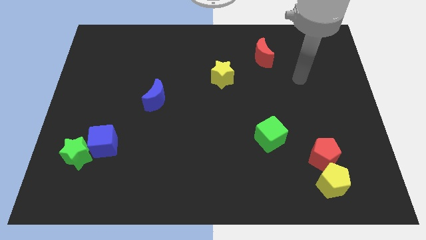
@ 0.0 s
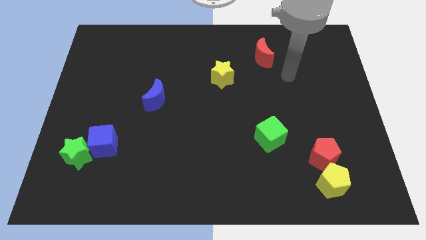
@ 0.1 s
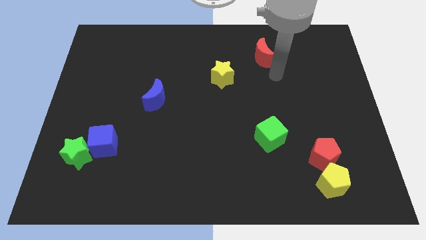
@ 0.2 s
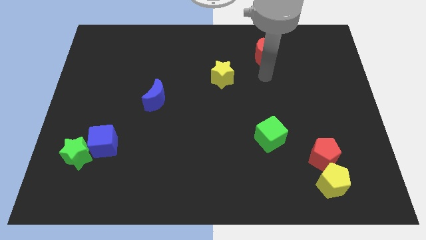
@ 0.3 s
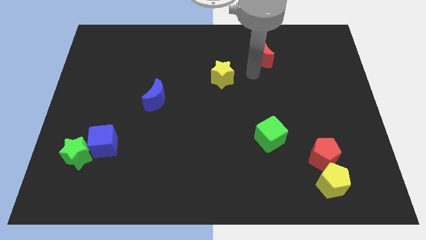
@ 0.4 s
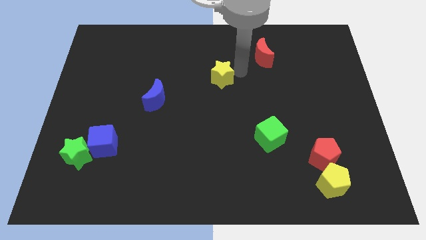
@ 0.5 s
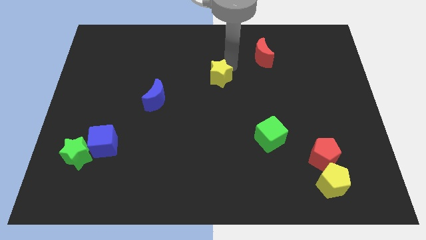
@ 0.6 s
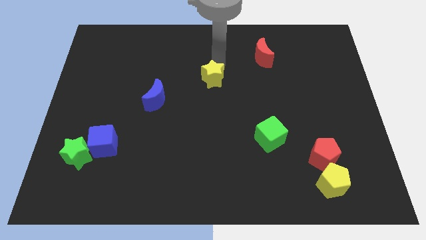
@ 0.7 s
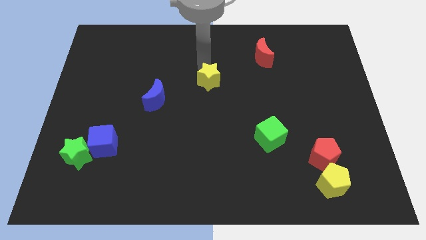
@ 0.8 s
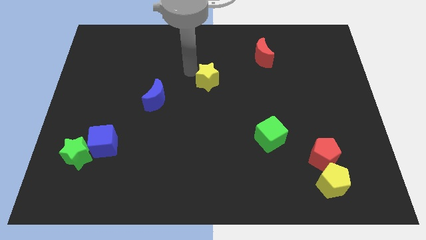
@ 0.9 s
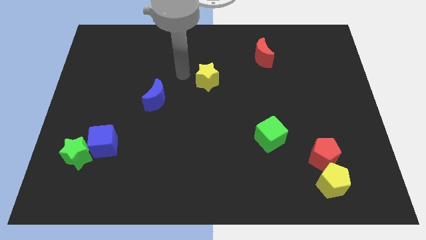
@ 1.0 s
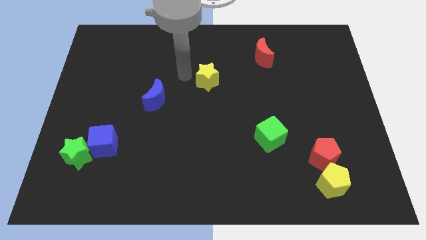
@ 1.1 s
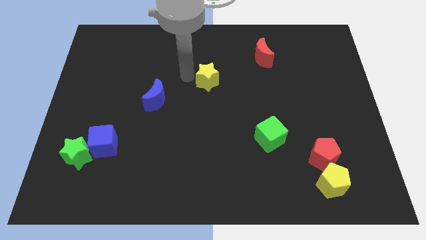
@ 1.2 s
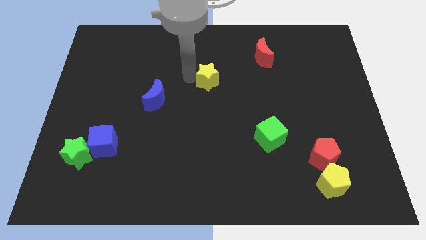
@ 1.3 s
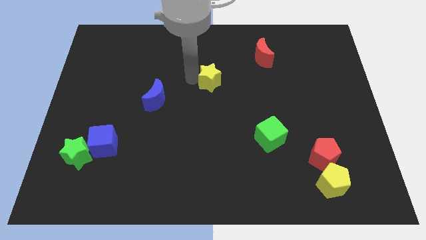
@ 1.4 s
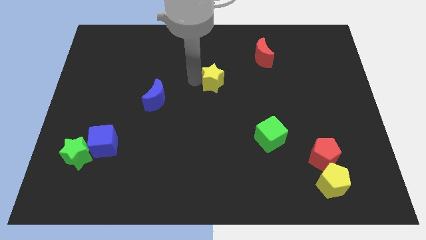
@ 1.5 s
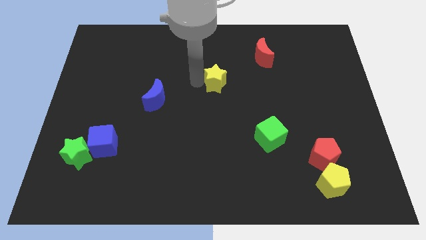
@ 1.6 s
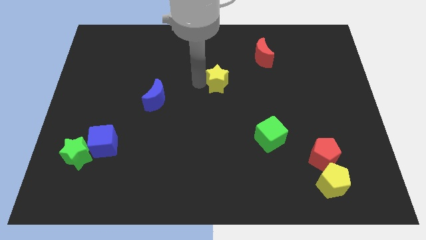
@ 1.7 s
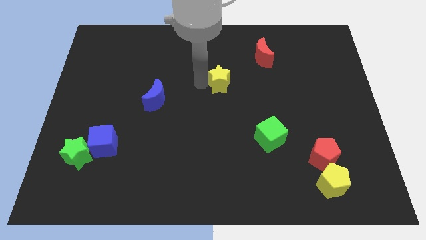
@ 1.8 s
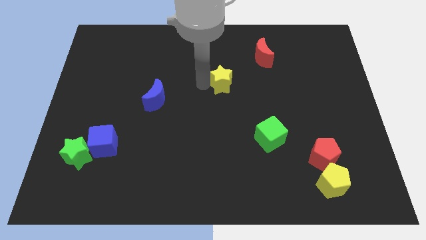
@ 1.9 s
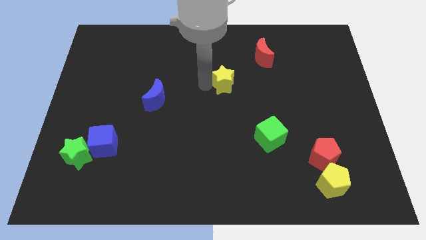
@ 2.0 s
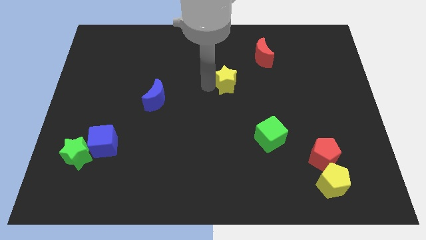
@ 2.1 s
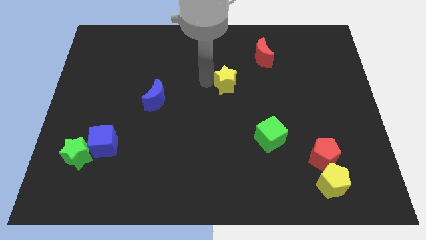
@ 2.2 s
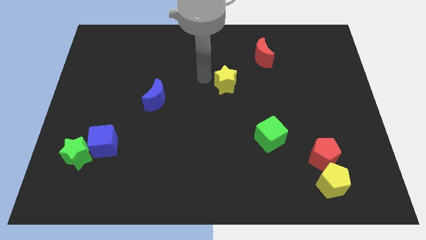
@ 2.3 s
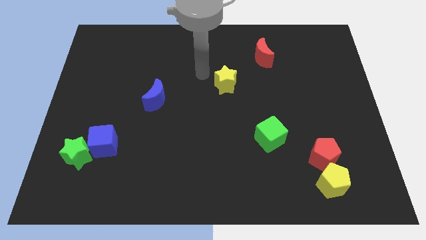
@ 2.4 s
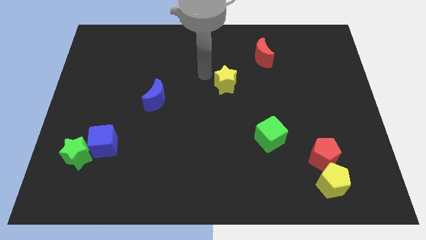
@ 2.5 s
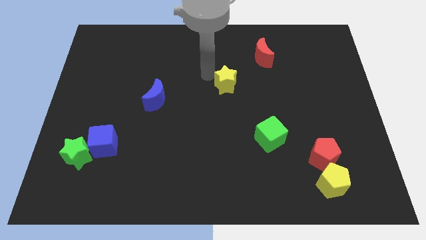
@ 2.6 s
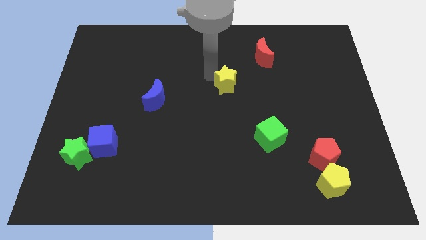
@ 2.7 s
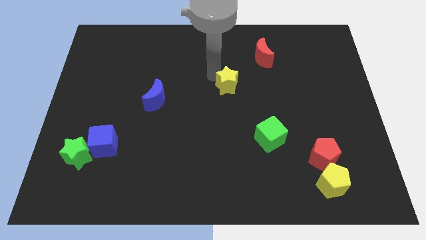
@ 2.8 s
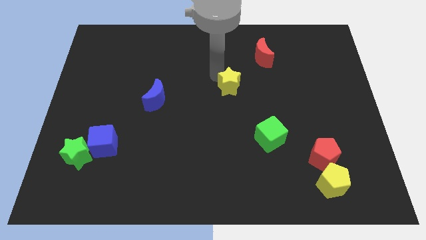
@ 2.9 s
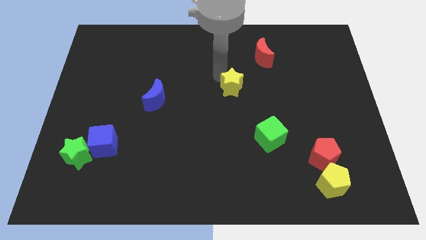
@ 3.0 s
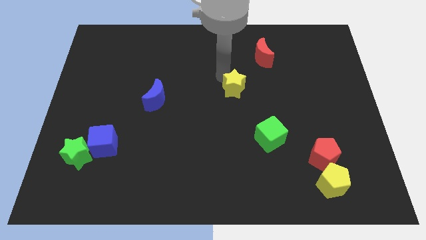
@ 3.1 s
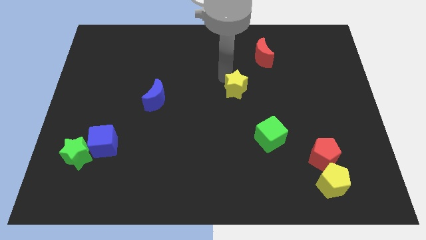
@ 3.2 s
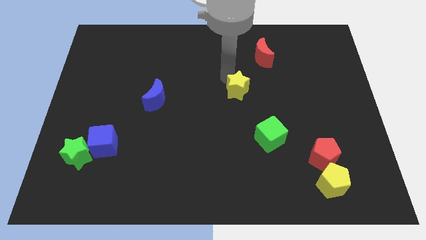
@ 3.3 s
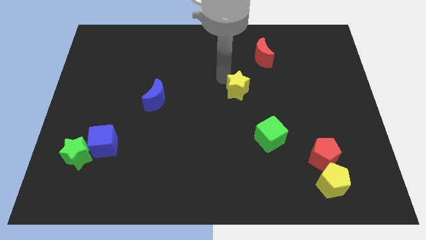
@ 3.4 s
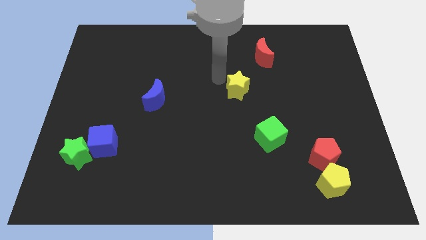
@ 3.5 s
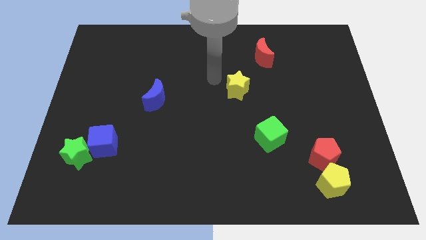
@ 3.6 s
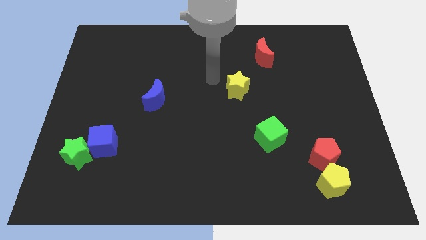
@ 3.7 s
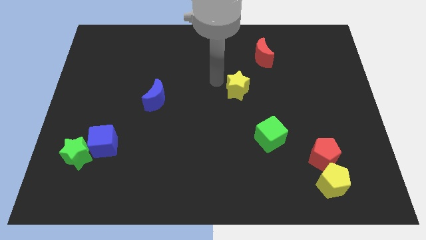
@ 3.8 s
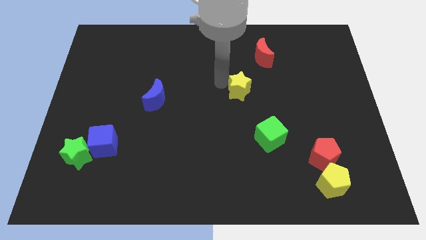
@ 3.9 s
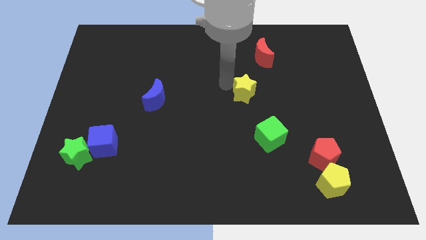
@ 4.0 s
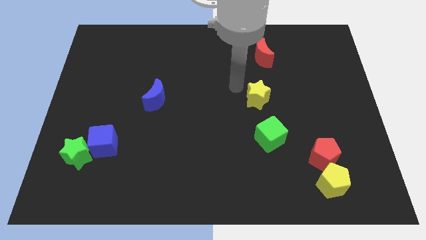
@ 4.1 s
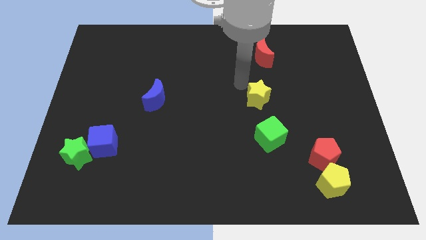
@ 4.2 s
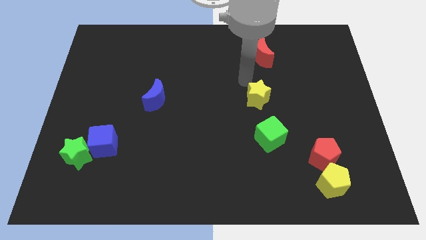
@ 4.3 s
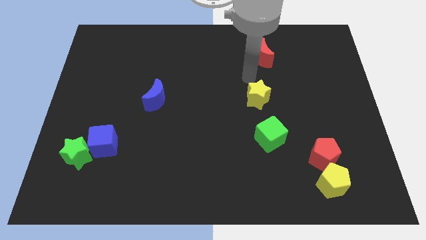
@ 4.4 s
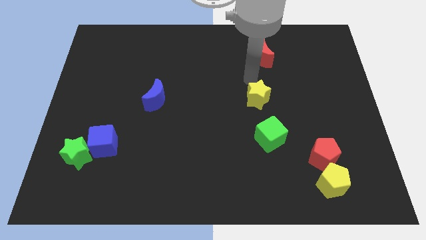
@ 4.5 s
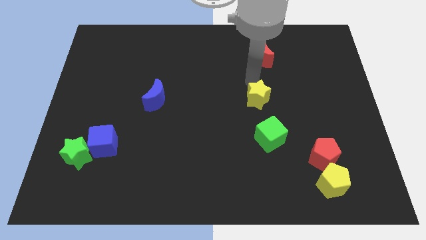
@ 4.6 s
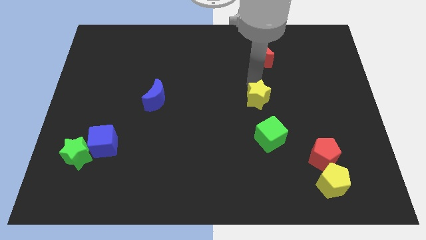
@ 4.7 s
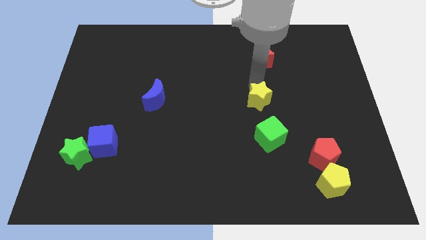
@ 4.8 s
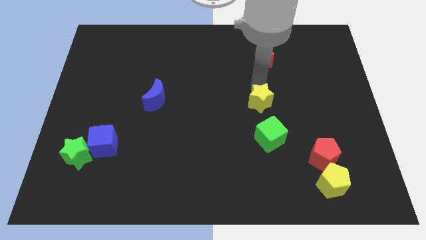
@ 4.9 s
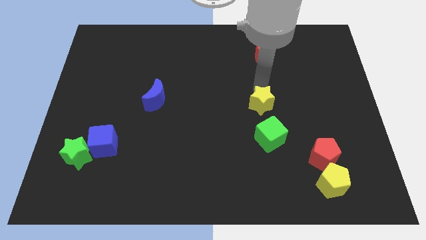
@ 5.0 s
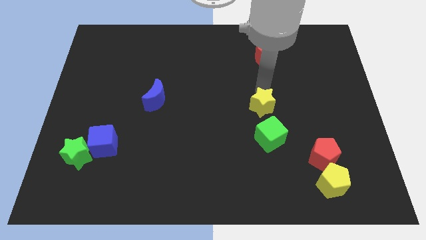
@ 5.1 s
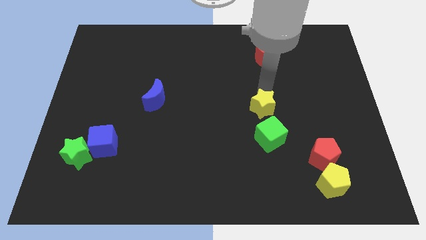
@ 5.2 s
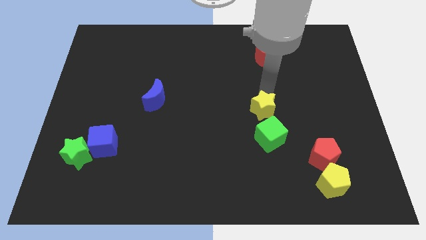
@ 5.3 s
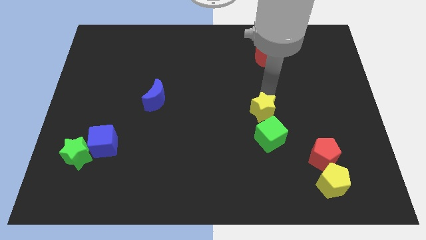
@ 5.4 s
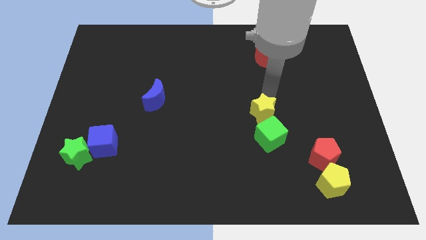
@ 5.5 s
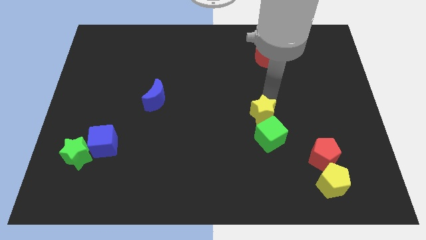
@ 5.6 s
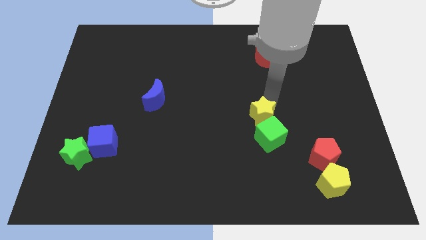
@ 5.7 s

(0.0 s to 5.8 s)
put the yellow star next to the green cube

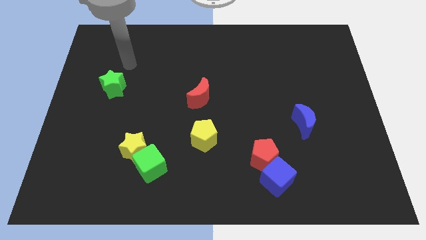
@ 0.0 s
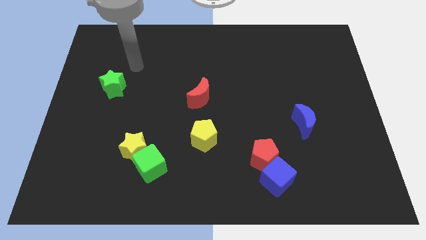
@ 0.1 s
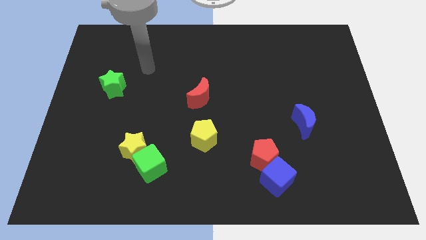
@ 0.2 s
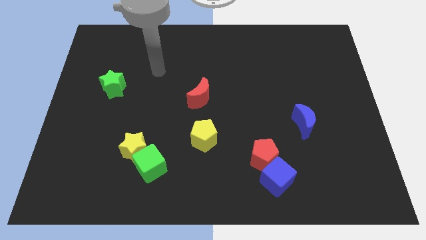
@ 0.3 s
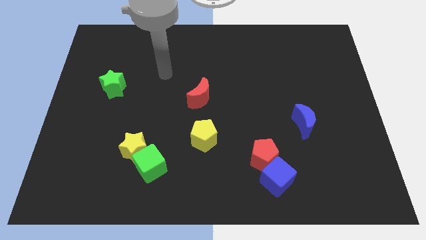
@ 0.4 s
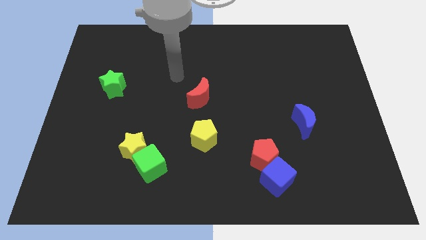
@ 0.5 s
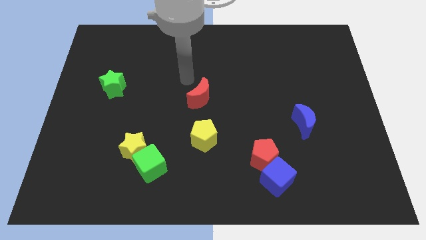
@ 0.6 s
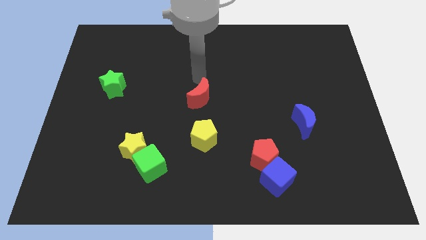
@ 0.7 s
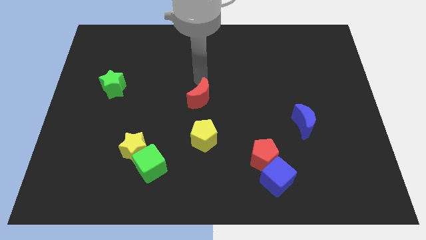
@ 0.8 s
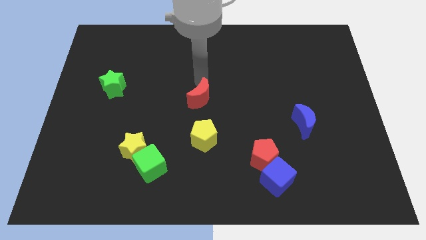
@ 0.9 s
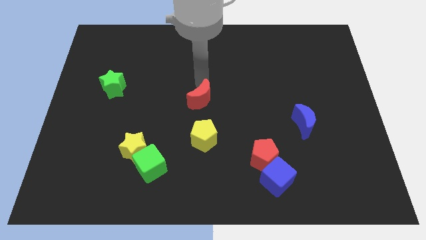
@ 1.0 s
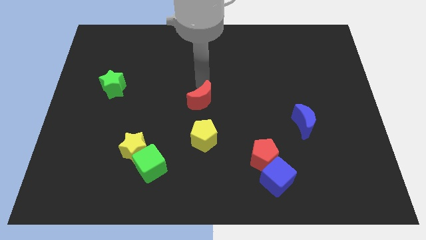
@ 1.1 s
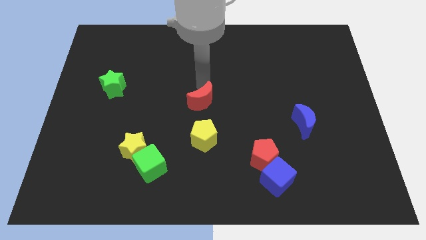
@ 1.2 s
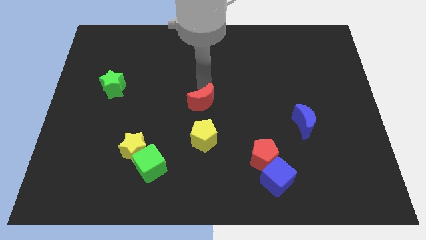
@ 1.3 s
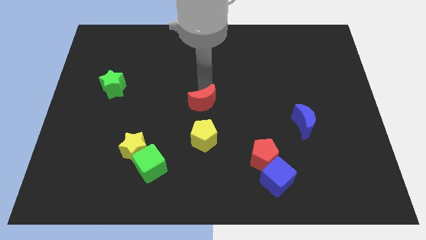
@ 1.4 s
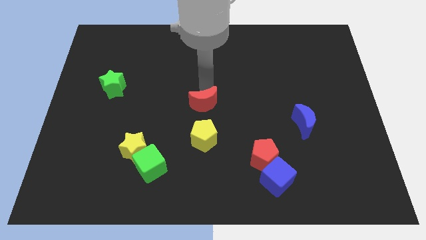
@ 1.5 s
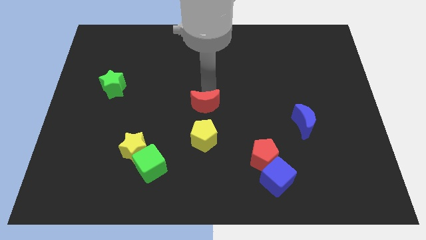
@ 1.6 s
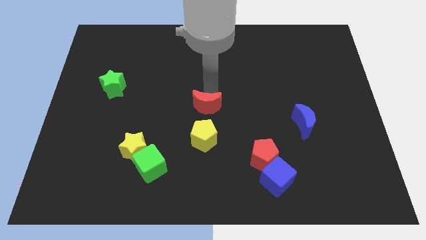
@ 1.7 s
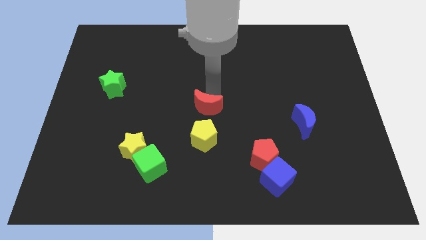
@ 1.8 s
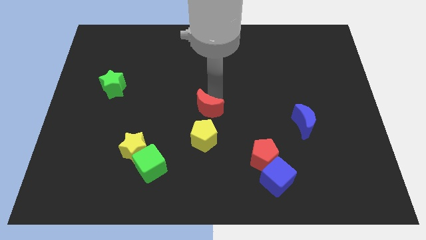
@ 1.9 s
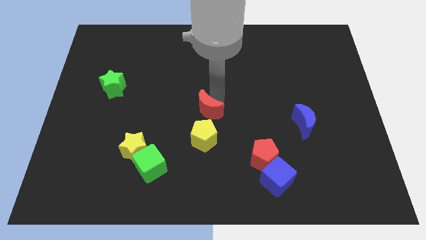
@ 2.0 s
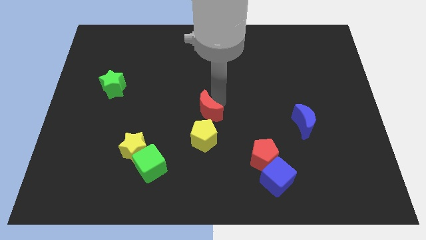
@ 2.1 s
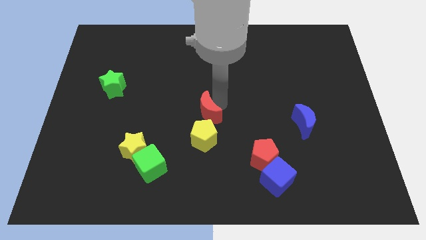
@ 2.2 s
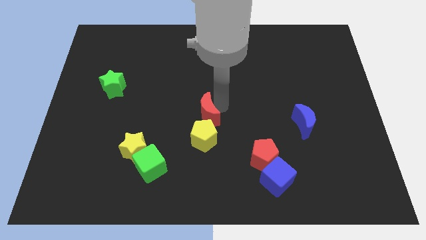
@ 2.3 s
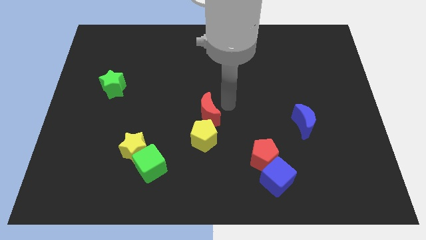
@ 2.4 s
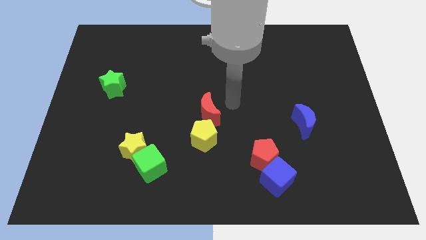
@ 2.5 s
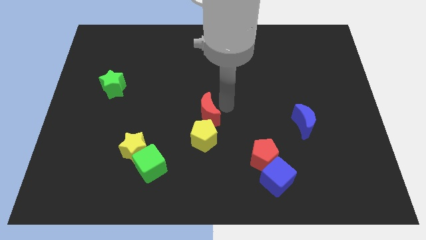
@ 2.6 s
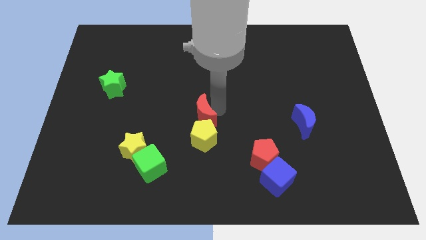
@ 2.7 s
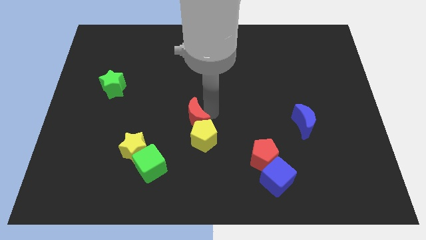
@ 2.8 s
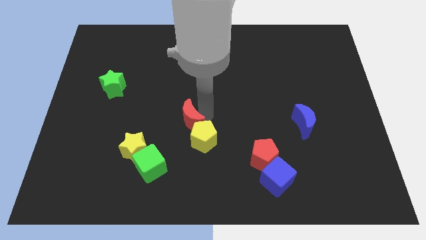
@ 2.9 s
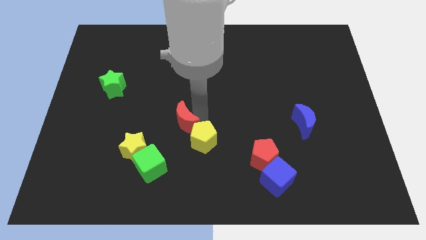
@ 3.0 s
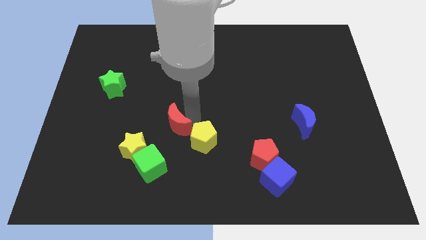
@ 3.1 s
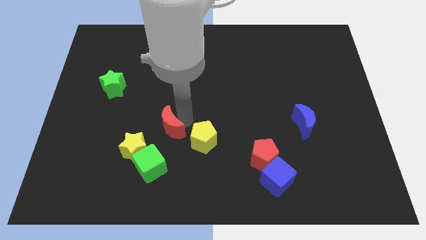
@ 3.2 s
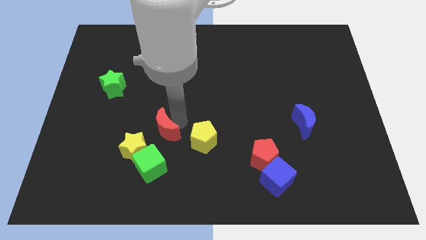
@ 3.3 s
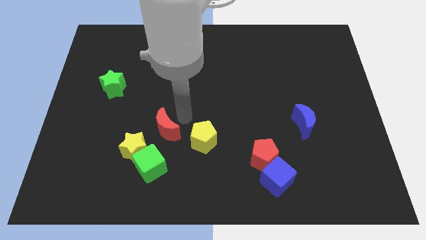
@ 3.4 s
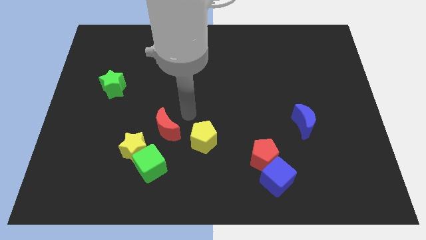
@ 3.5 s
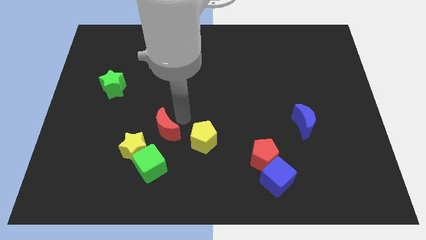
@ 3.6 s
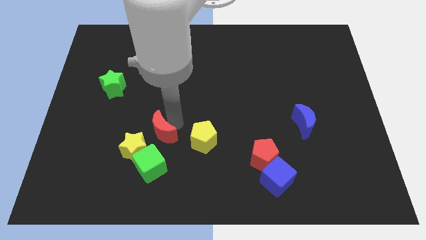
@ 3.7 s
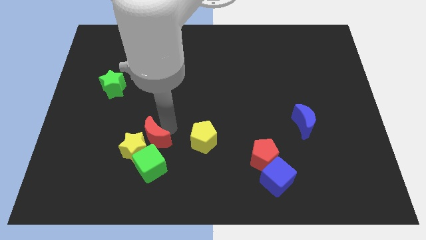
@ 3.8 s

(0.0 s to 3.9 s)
move the red moon next to the yellow star
